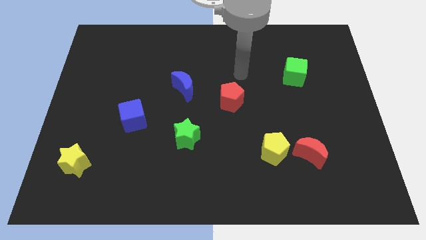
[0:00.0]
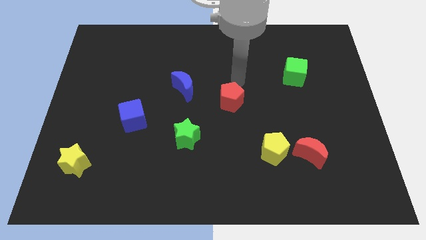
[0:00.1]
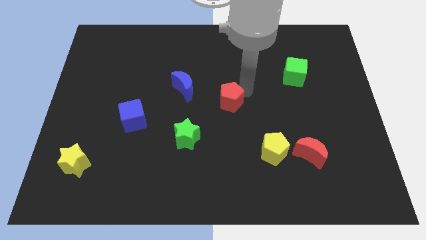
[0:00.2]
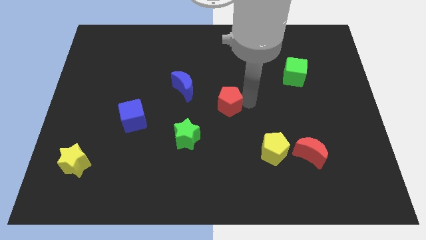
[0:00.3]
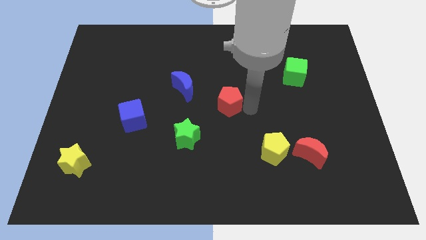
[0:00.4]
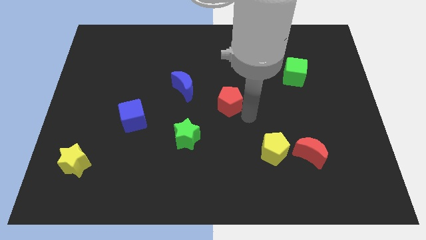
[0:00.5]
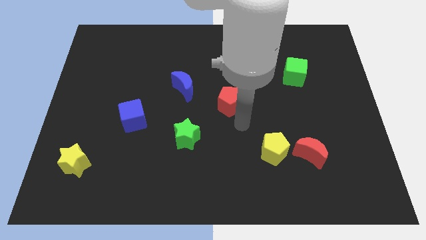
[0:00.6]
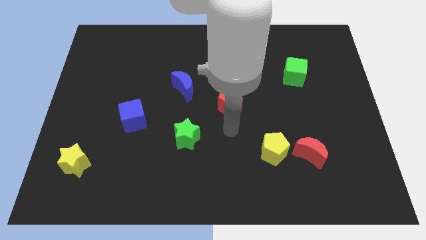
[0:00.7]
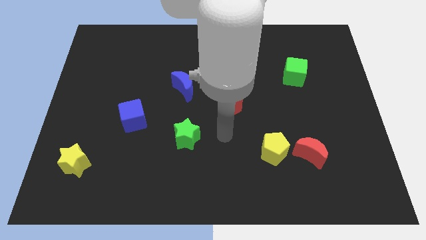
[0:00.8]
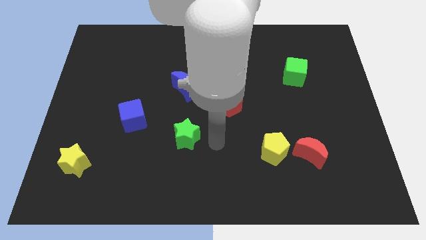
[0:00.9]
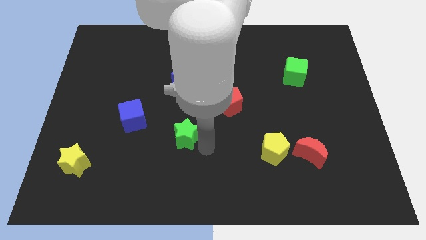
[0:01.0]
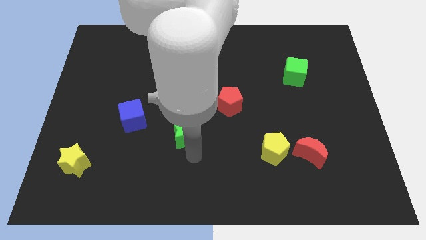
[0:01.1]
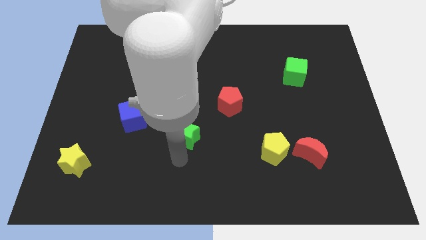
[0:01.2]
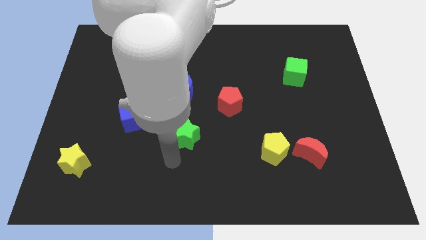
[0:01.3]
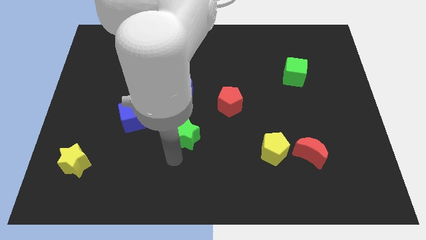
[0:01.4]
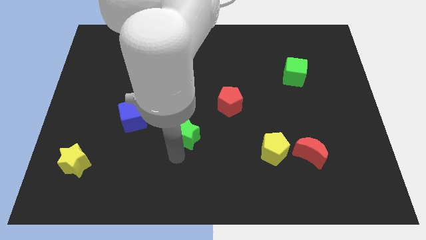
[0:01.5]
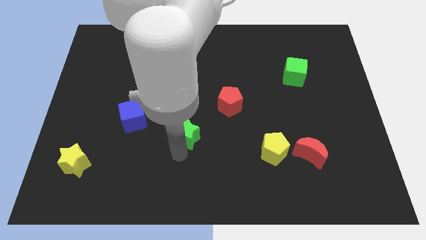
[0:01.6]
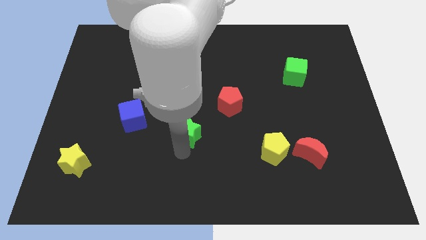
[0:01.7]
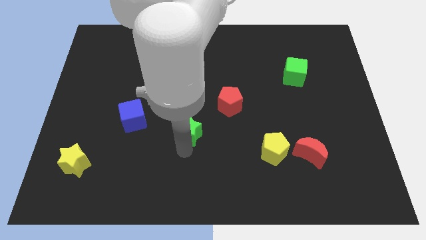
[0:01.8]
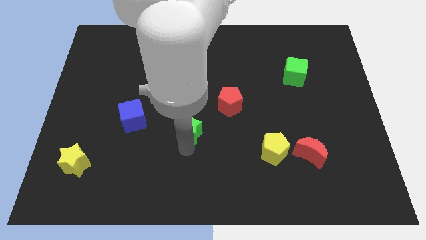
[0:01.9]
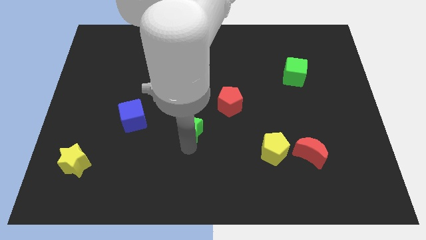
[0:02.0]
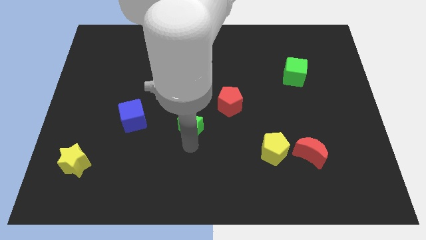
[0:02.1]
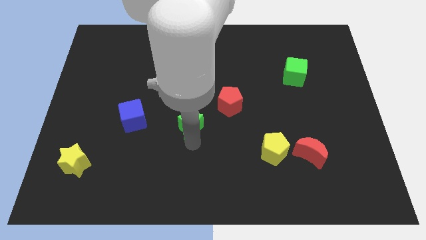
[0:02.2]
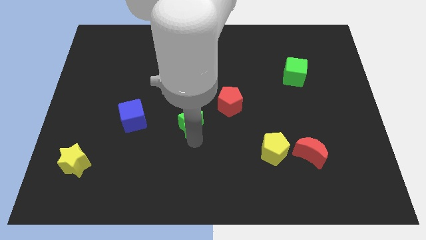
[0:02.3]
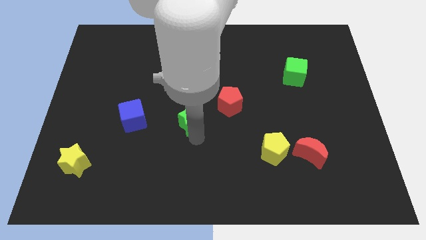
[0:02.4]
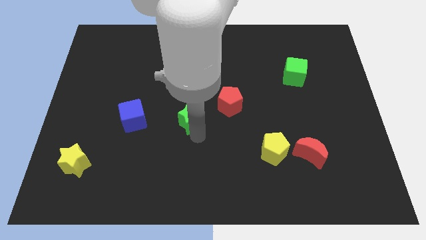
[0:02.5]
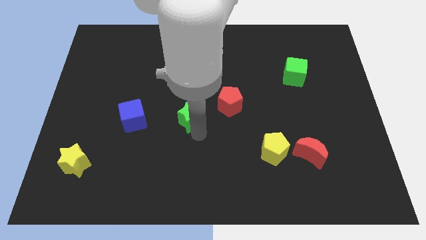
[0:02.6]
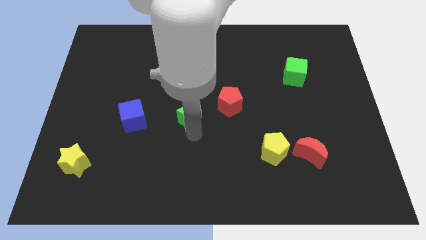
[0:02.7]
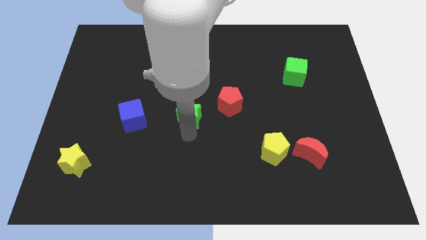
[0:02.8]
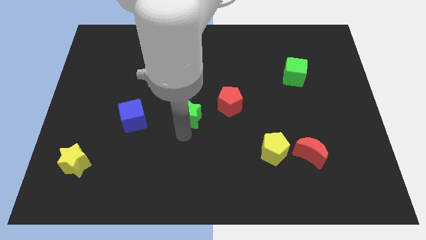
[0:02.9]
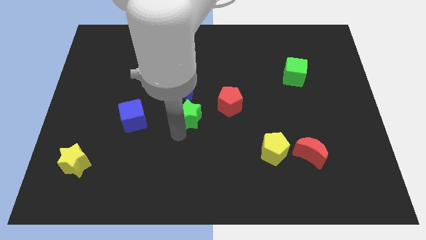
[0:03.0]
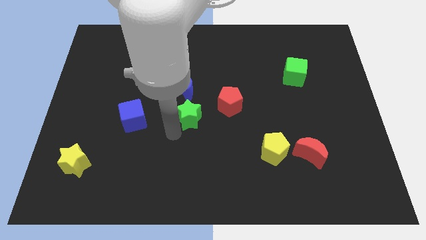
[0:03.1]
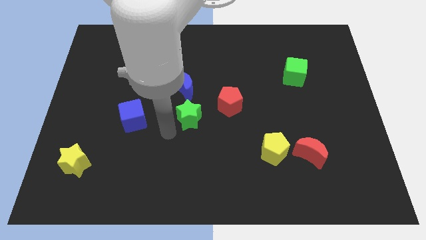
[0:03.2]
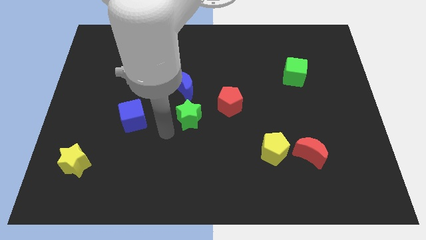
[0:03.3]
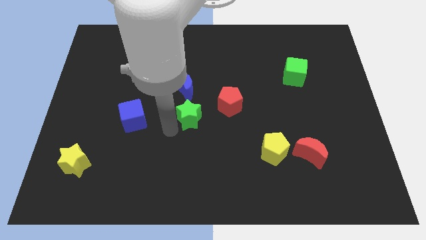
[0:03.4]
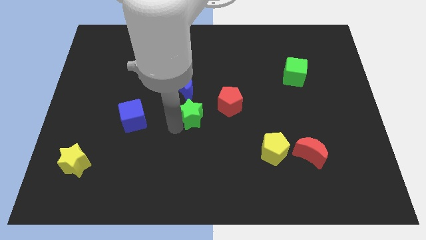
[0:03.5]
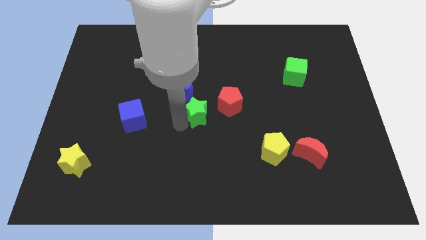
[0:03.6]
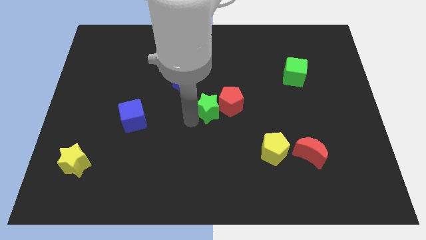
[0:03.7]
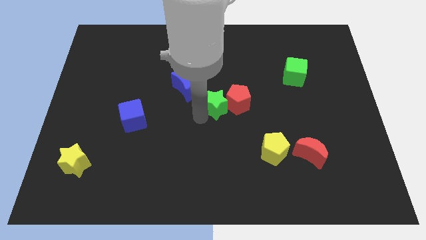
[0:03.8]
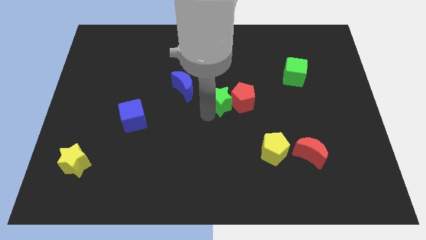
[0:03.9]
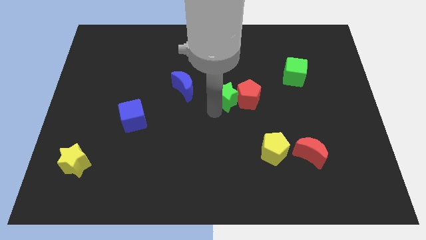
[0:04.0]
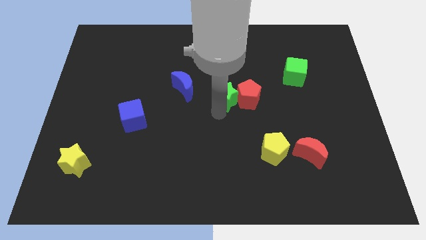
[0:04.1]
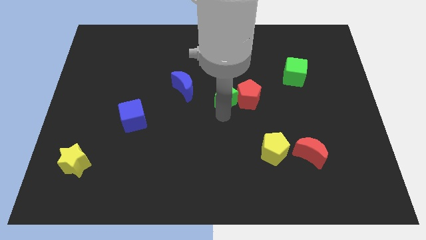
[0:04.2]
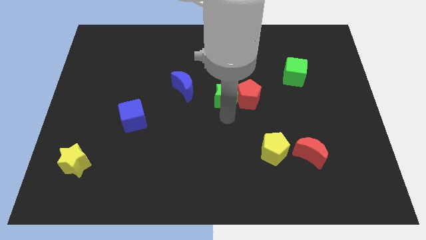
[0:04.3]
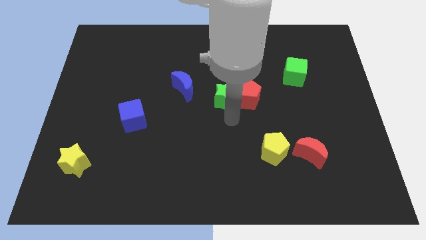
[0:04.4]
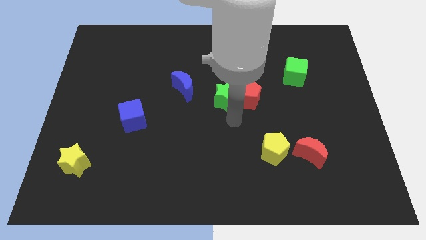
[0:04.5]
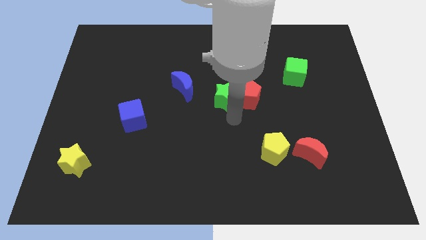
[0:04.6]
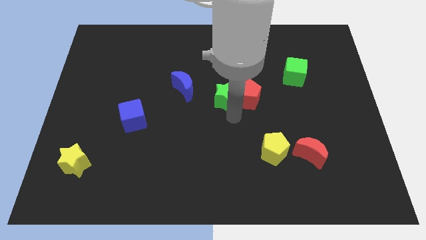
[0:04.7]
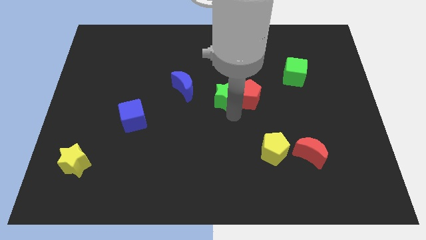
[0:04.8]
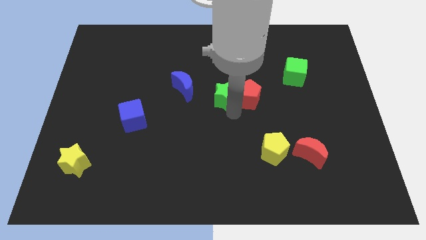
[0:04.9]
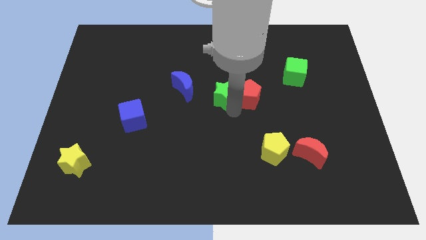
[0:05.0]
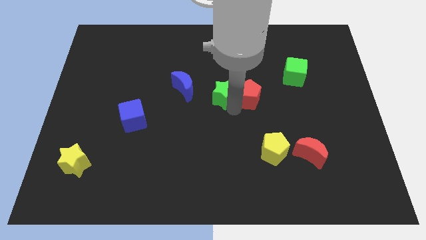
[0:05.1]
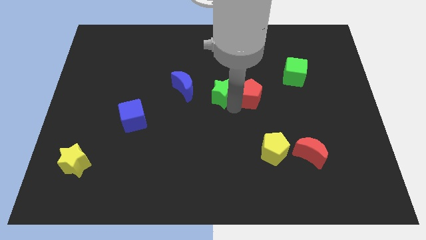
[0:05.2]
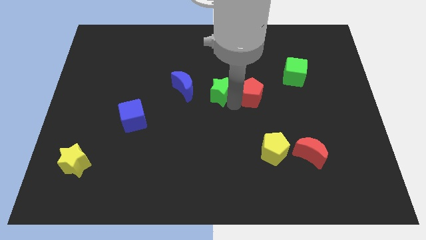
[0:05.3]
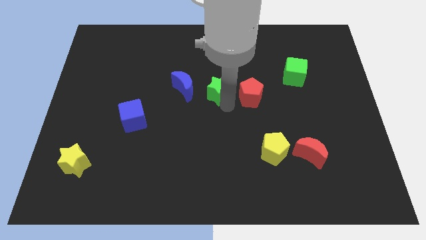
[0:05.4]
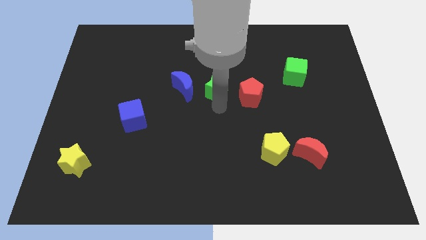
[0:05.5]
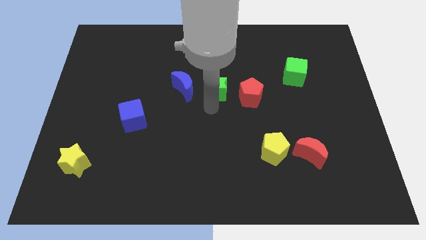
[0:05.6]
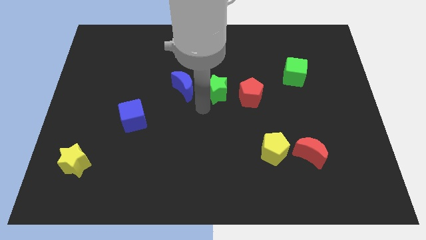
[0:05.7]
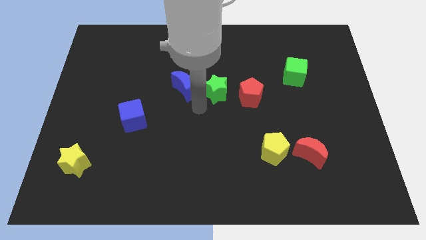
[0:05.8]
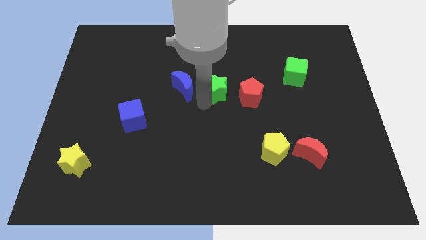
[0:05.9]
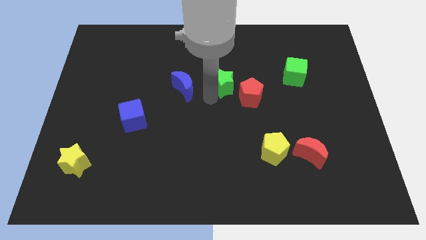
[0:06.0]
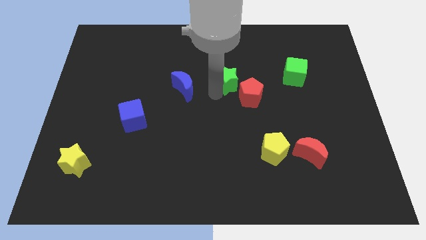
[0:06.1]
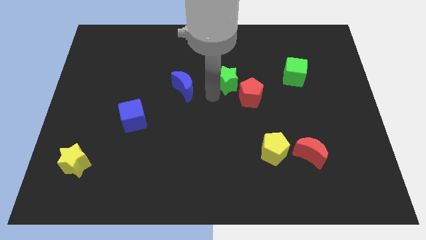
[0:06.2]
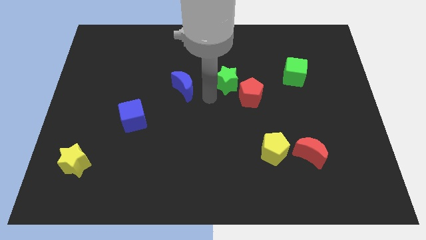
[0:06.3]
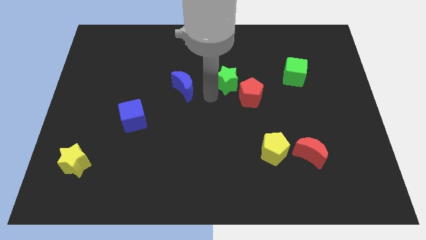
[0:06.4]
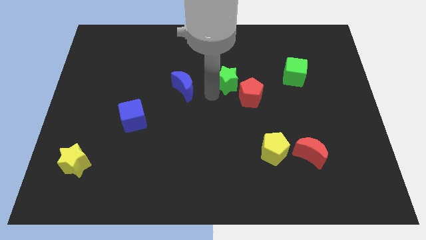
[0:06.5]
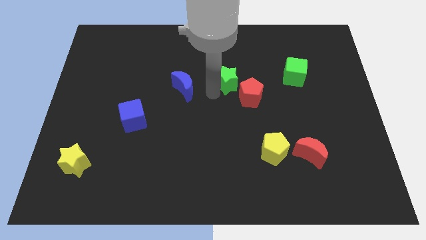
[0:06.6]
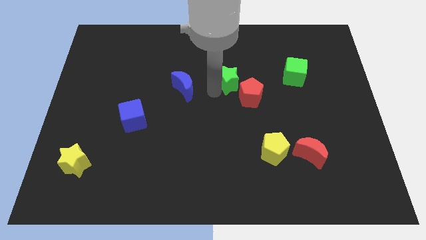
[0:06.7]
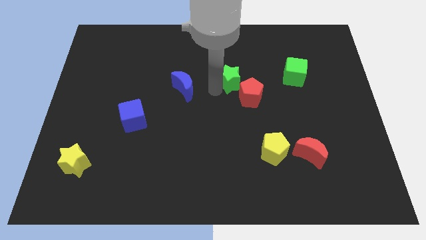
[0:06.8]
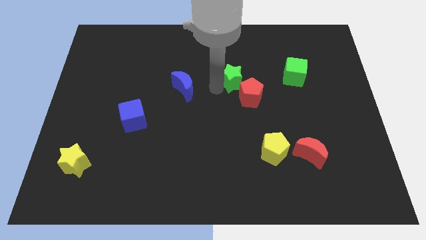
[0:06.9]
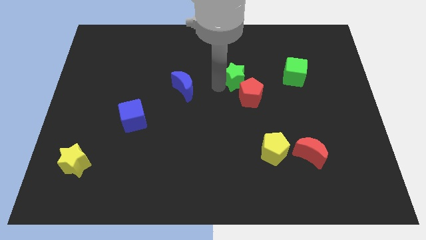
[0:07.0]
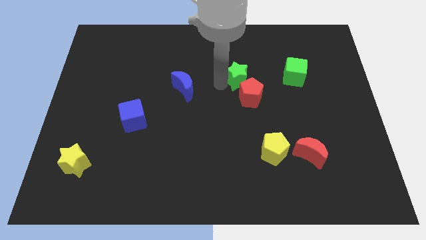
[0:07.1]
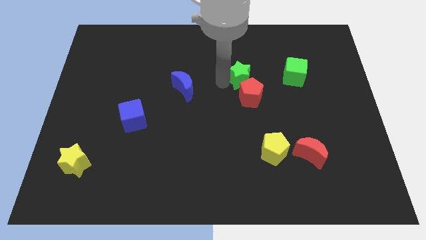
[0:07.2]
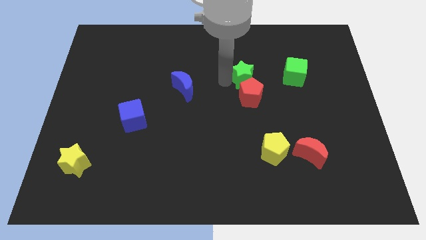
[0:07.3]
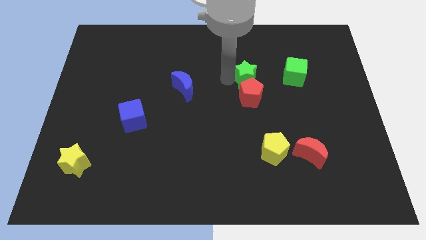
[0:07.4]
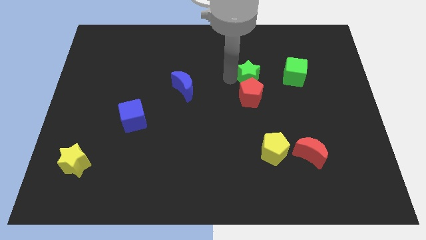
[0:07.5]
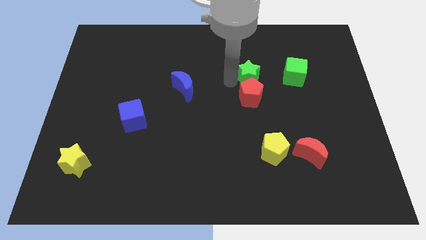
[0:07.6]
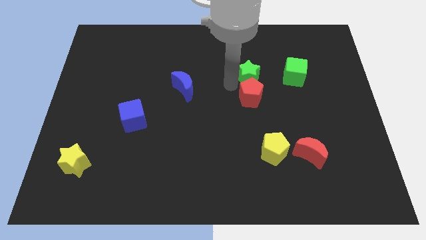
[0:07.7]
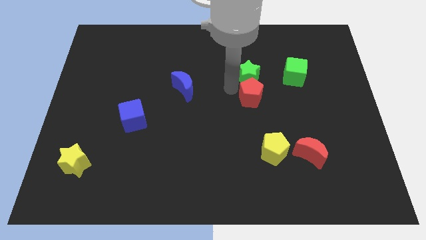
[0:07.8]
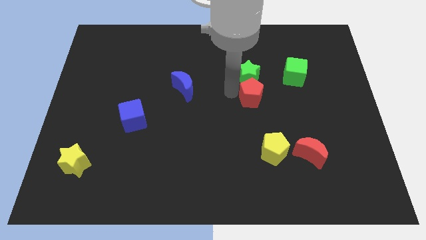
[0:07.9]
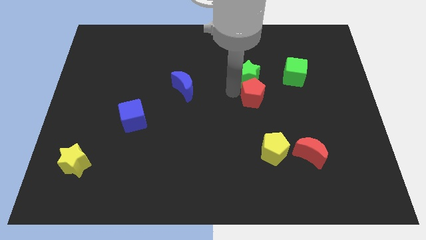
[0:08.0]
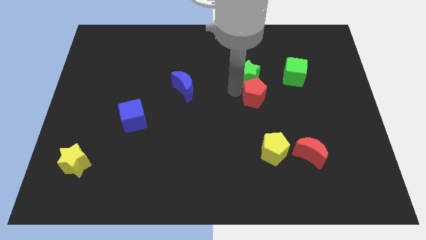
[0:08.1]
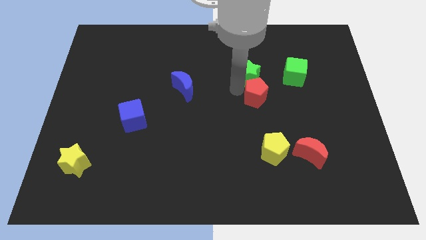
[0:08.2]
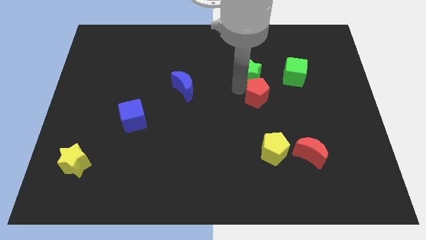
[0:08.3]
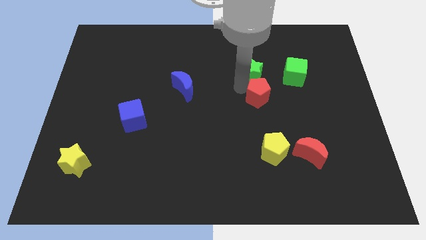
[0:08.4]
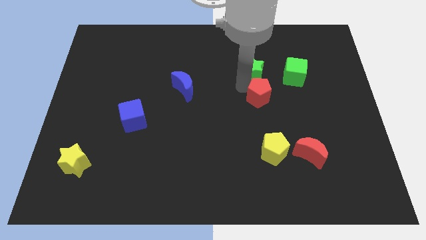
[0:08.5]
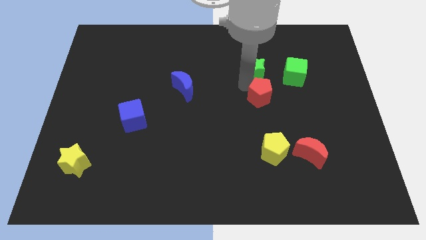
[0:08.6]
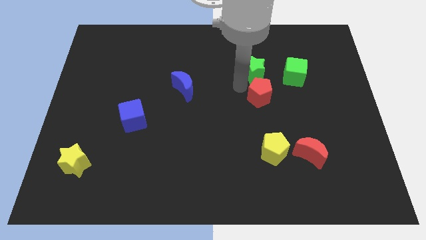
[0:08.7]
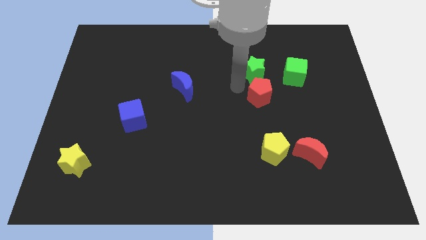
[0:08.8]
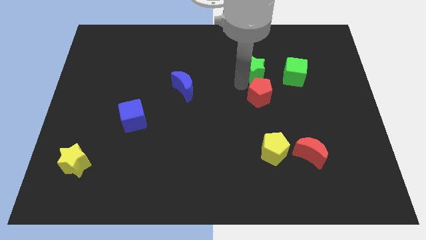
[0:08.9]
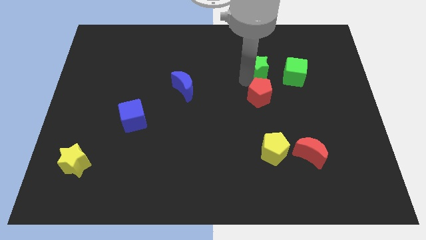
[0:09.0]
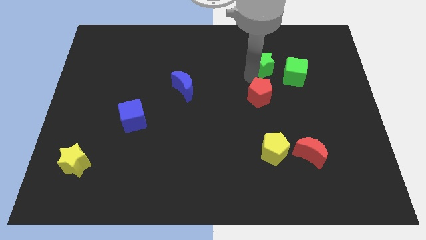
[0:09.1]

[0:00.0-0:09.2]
move the green star to the top left of the green cube
